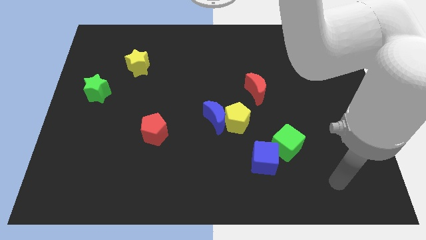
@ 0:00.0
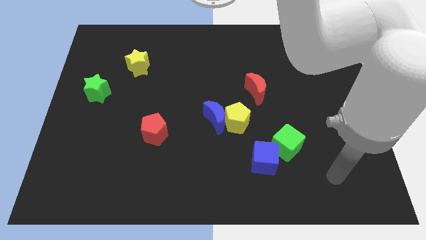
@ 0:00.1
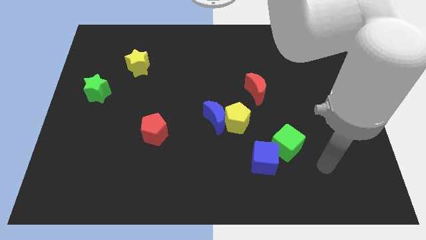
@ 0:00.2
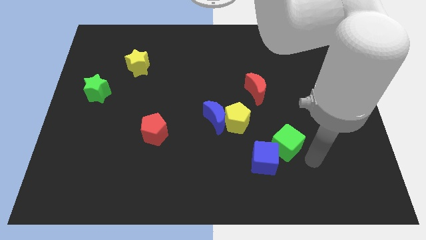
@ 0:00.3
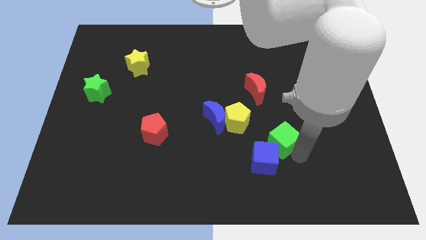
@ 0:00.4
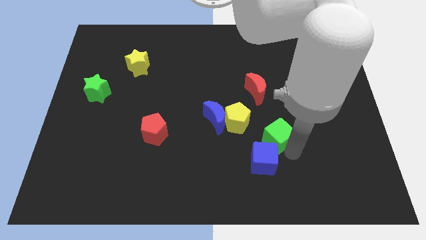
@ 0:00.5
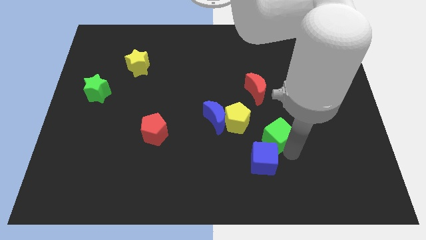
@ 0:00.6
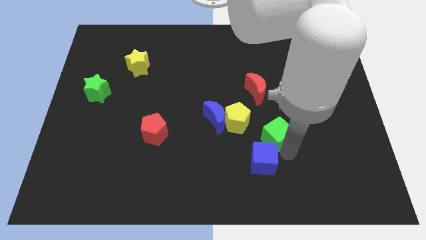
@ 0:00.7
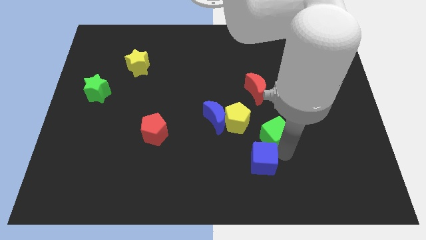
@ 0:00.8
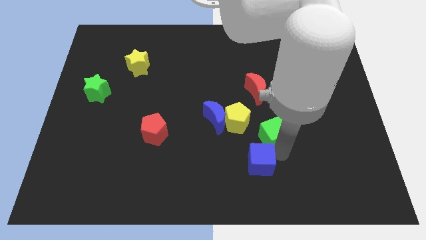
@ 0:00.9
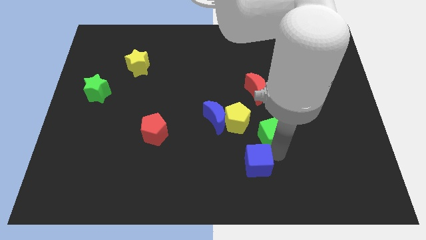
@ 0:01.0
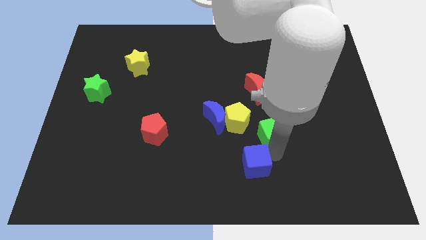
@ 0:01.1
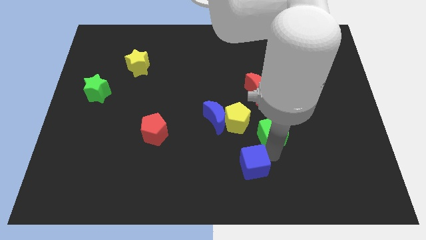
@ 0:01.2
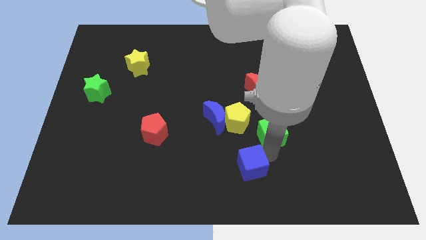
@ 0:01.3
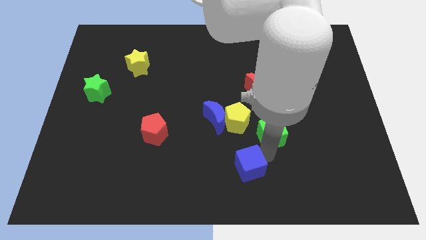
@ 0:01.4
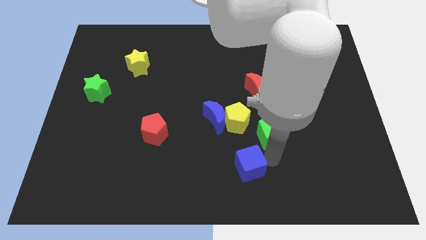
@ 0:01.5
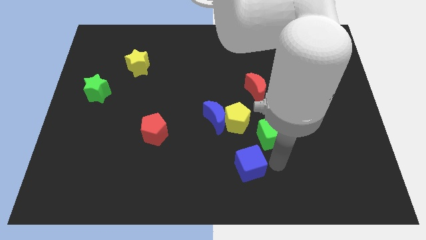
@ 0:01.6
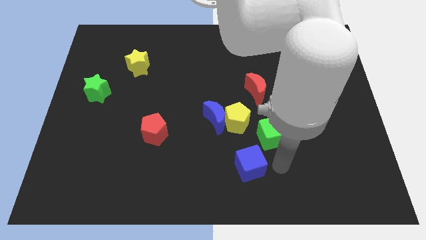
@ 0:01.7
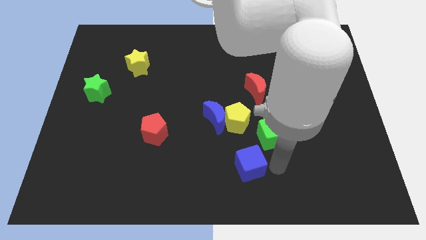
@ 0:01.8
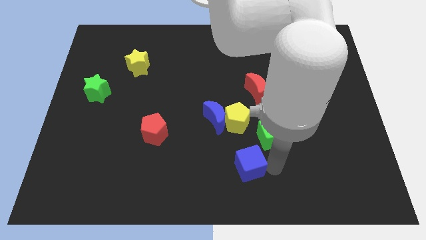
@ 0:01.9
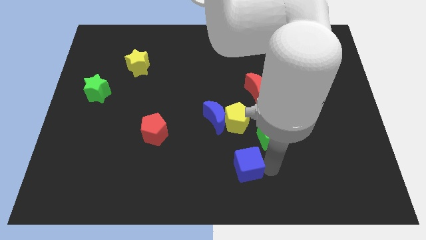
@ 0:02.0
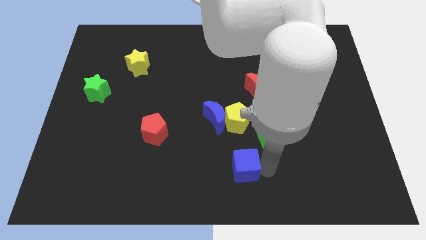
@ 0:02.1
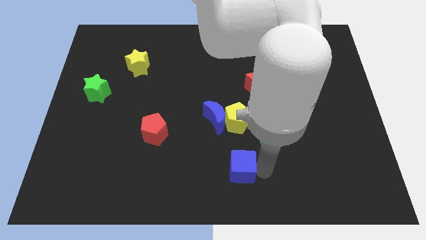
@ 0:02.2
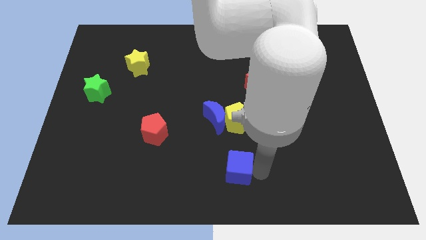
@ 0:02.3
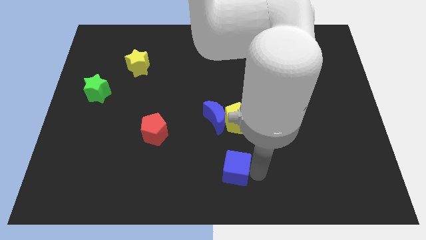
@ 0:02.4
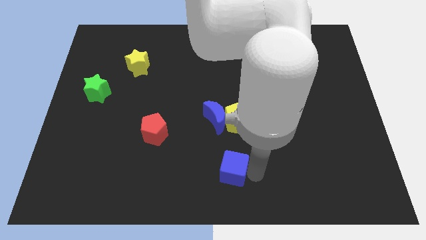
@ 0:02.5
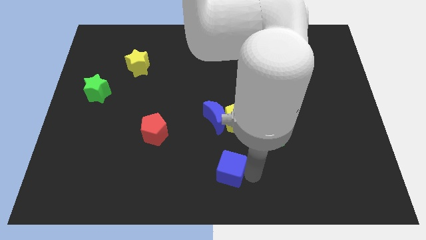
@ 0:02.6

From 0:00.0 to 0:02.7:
push the blue cube a little bit to the left

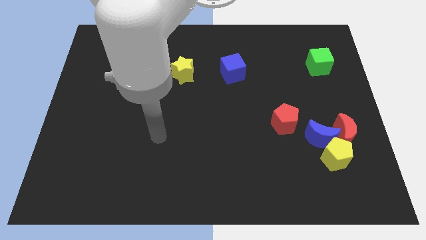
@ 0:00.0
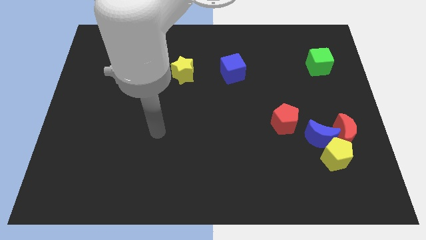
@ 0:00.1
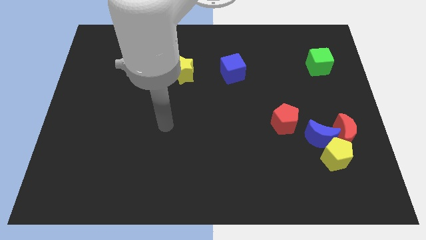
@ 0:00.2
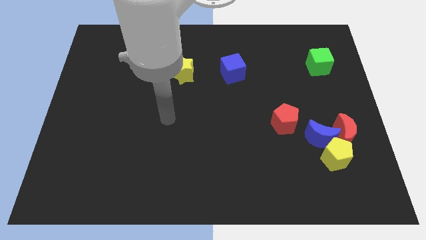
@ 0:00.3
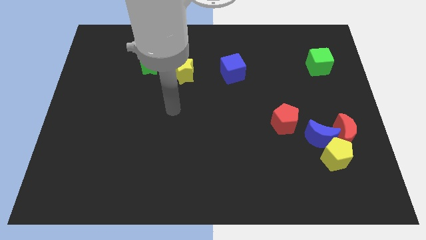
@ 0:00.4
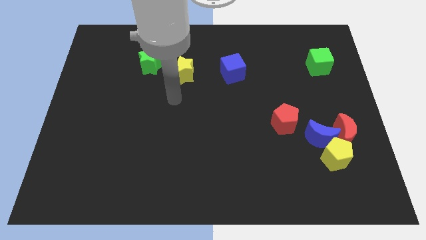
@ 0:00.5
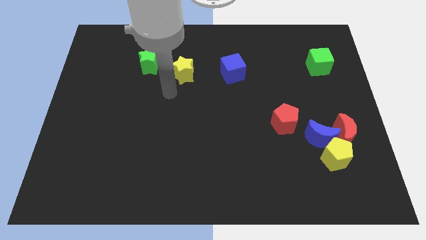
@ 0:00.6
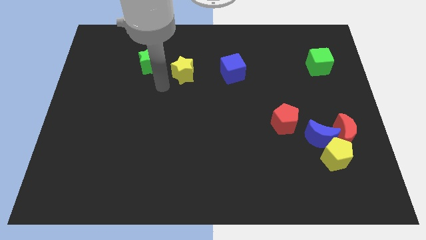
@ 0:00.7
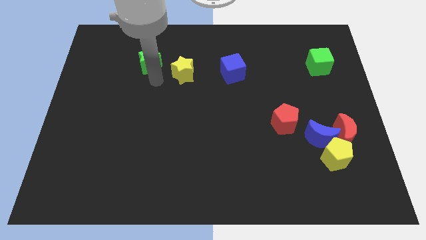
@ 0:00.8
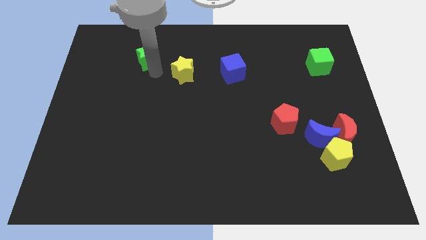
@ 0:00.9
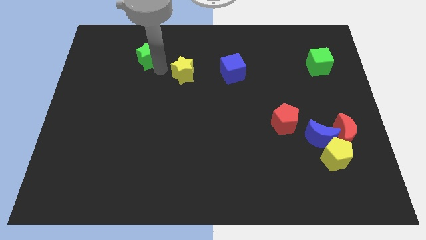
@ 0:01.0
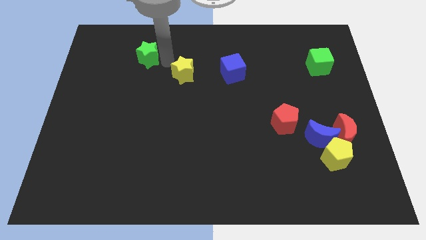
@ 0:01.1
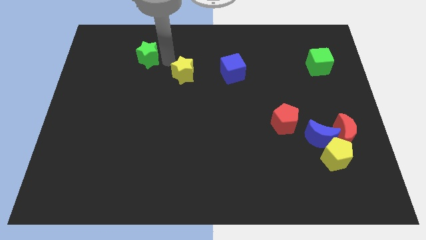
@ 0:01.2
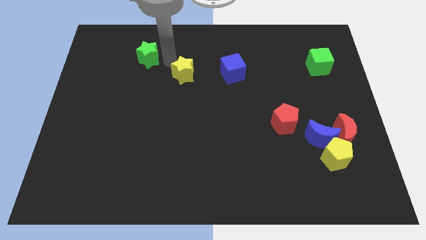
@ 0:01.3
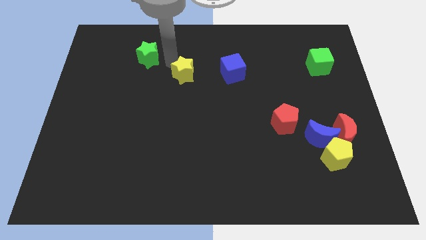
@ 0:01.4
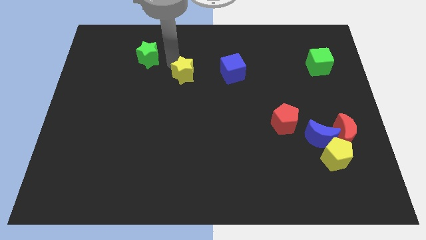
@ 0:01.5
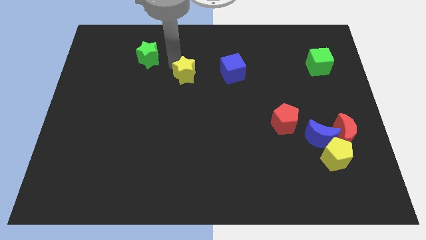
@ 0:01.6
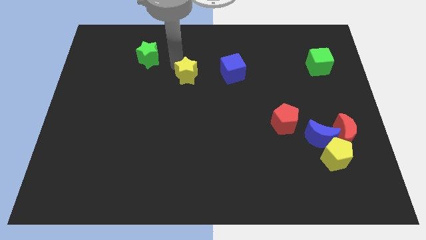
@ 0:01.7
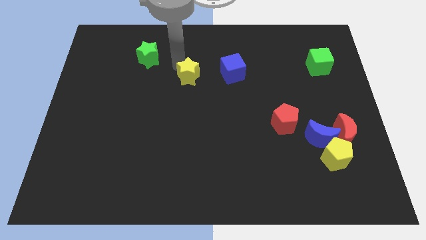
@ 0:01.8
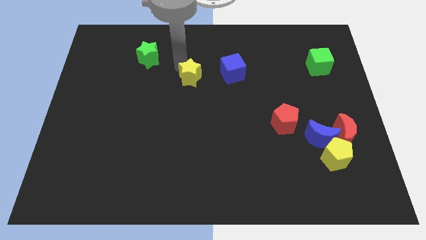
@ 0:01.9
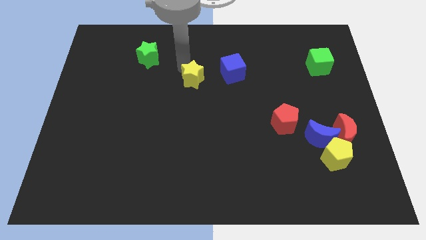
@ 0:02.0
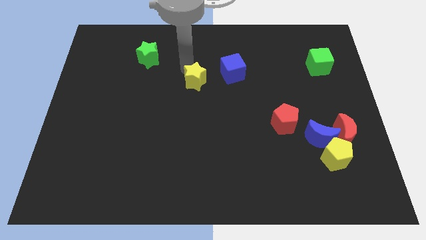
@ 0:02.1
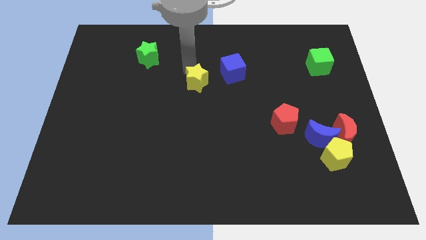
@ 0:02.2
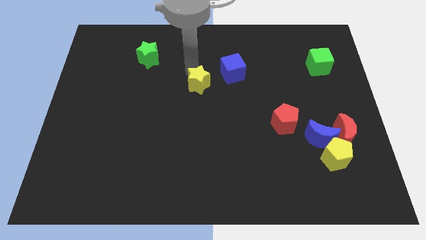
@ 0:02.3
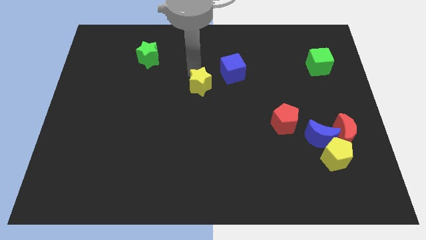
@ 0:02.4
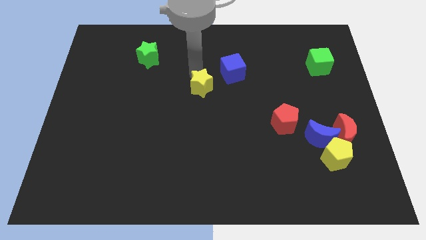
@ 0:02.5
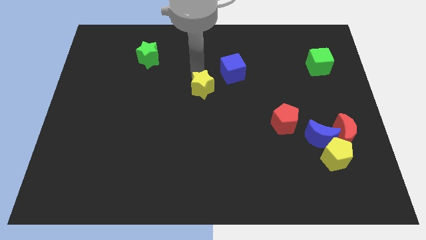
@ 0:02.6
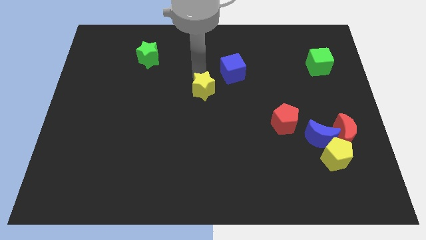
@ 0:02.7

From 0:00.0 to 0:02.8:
slightly slide the yellow star downwards and right

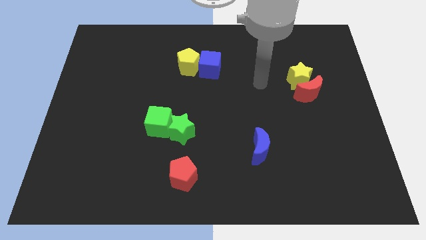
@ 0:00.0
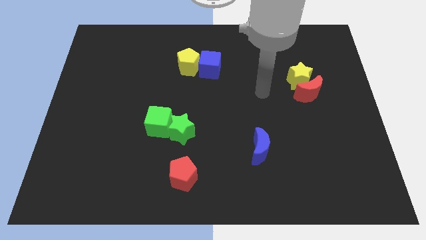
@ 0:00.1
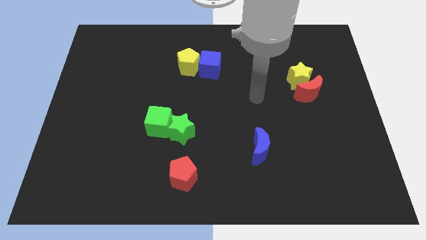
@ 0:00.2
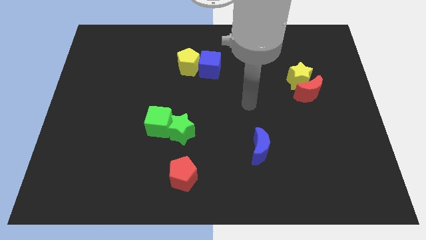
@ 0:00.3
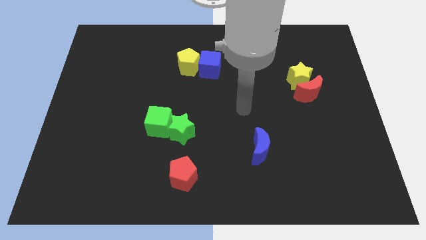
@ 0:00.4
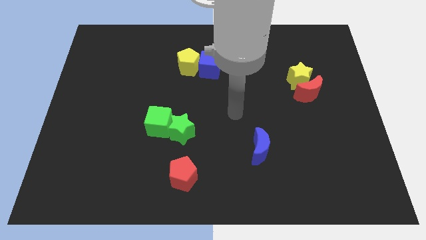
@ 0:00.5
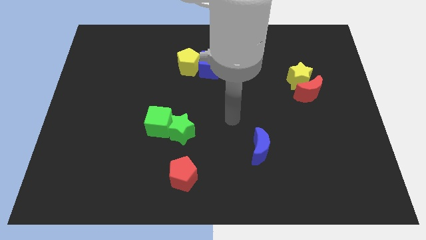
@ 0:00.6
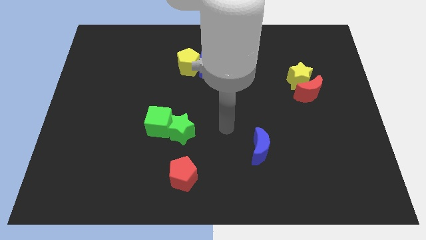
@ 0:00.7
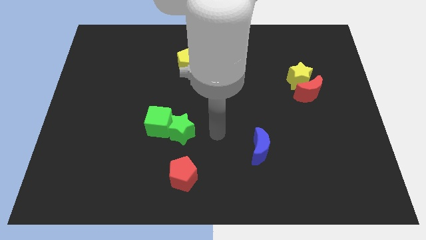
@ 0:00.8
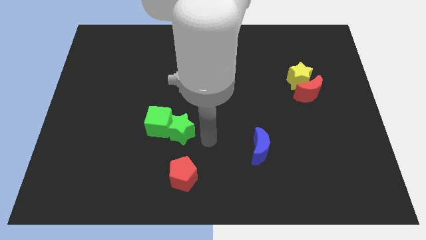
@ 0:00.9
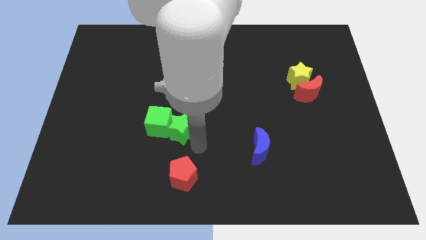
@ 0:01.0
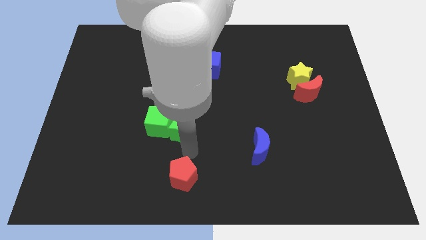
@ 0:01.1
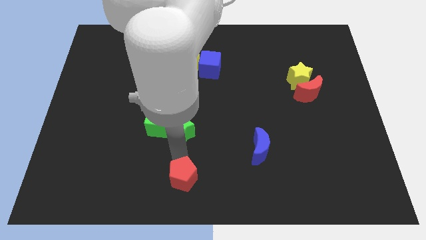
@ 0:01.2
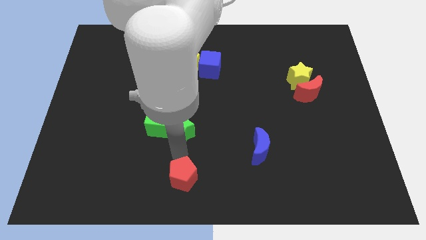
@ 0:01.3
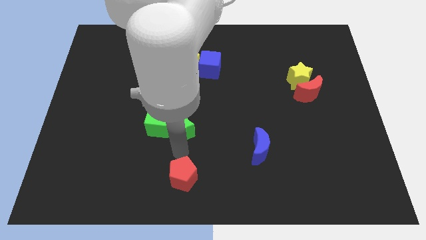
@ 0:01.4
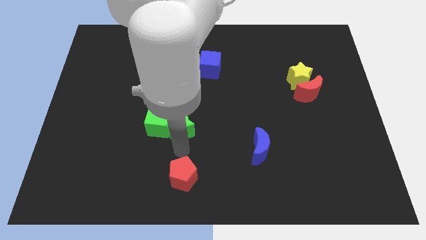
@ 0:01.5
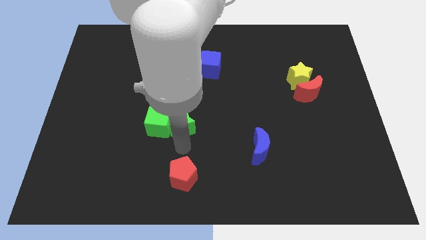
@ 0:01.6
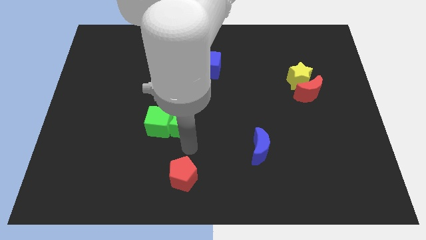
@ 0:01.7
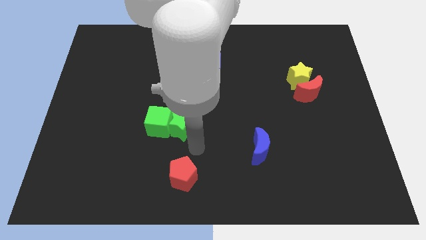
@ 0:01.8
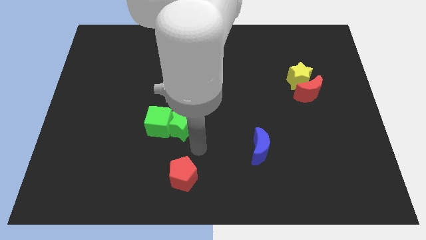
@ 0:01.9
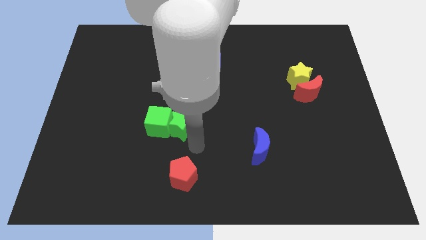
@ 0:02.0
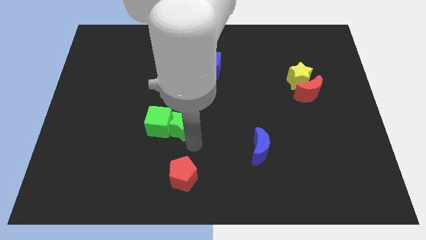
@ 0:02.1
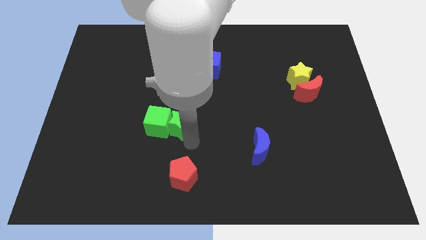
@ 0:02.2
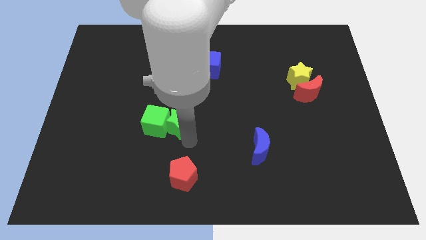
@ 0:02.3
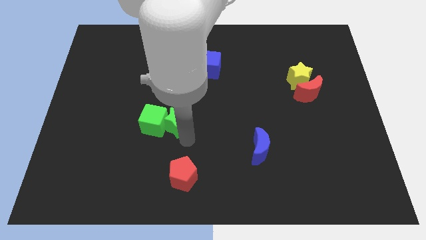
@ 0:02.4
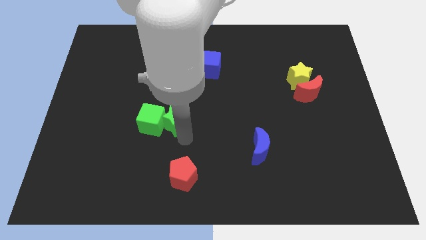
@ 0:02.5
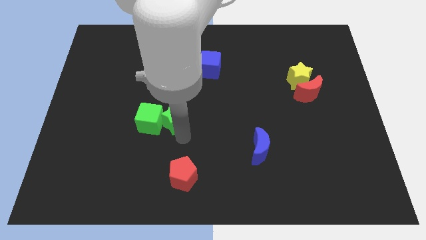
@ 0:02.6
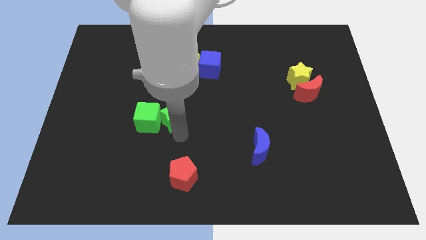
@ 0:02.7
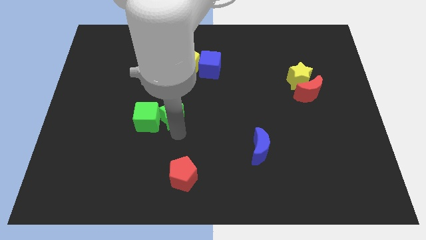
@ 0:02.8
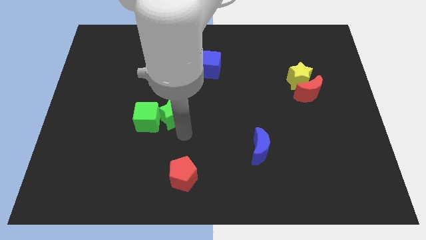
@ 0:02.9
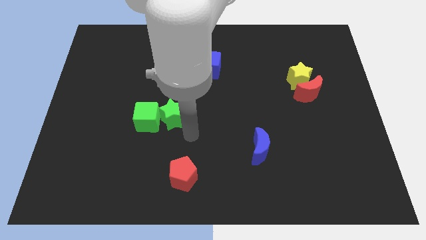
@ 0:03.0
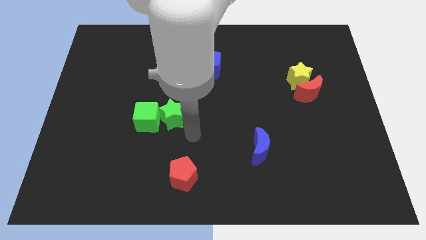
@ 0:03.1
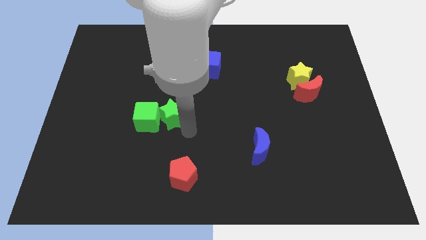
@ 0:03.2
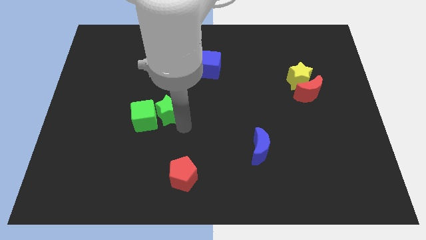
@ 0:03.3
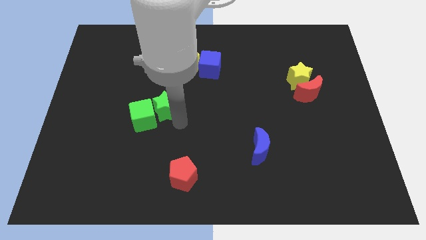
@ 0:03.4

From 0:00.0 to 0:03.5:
slide the green star a little upwards and left
